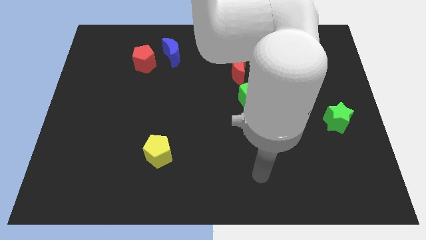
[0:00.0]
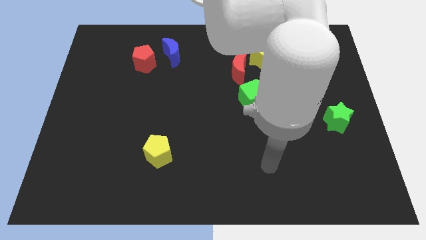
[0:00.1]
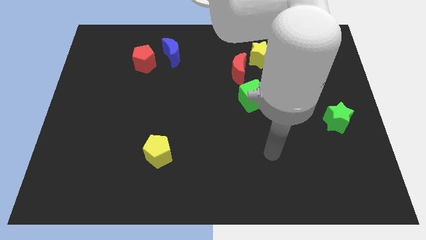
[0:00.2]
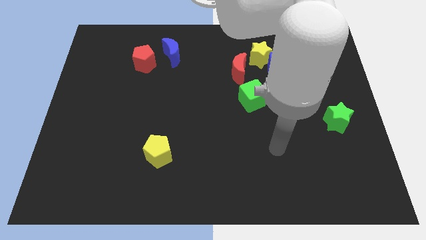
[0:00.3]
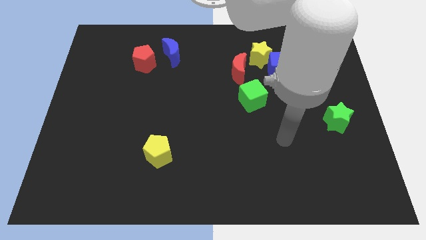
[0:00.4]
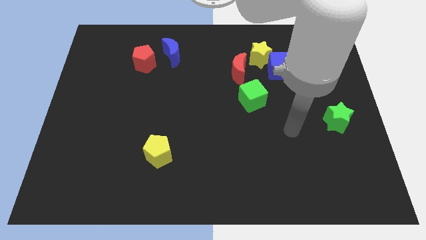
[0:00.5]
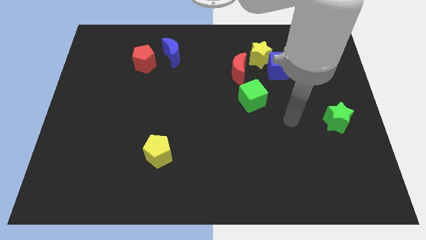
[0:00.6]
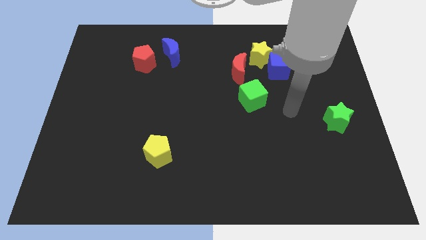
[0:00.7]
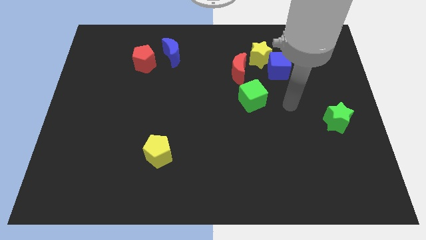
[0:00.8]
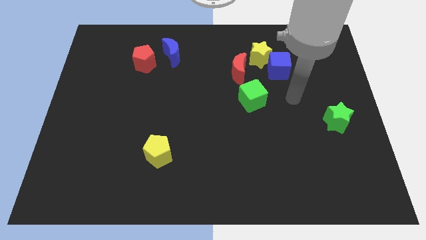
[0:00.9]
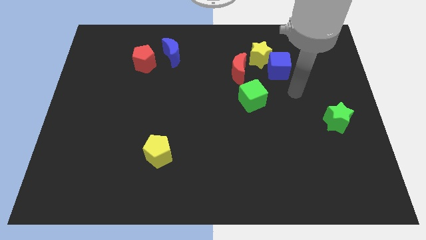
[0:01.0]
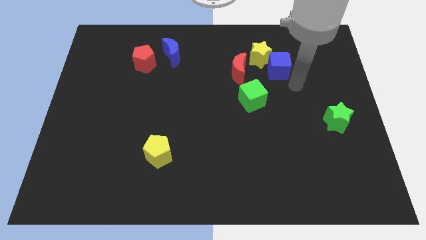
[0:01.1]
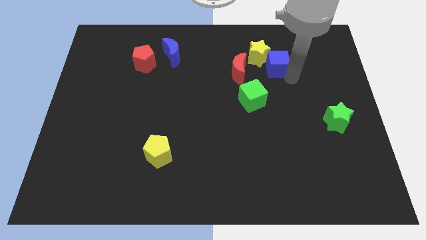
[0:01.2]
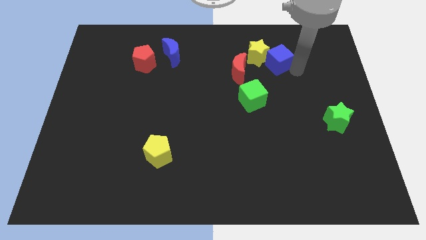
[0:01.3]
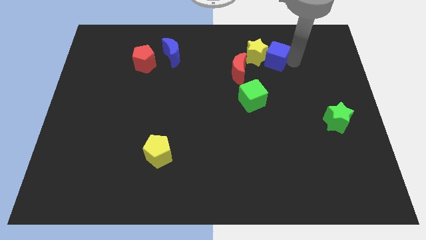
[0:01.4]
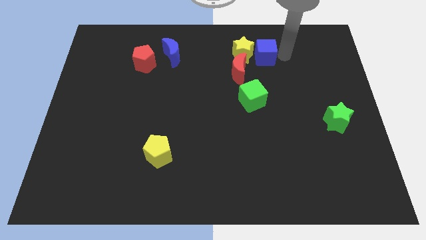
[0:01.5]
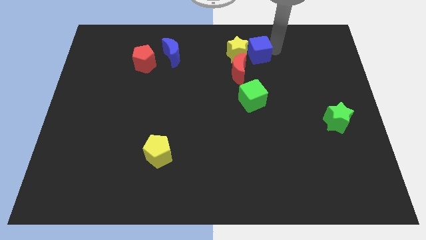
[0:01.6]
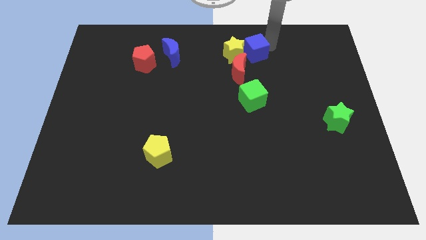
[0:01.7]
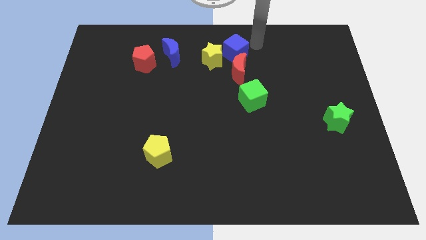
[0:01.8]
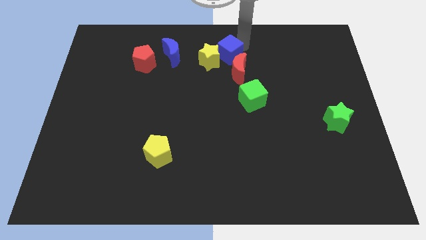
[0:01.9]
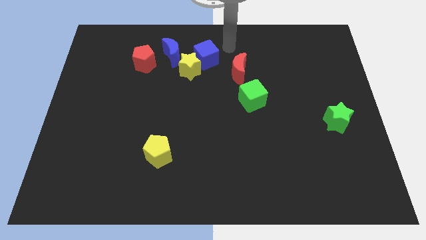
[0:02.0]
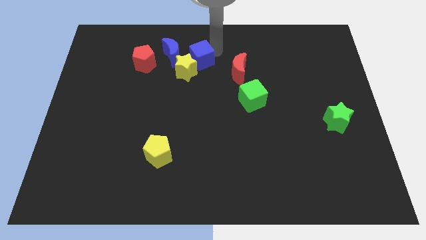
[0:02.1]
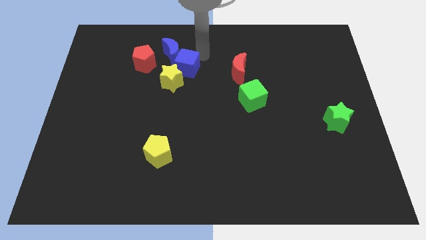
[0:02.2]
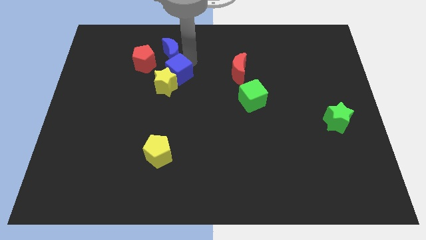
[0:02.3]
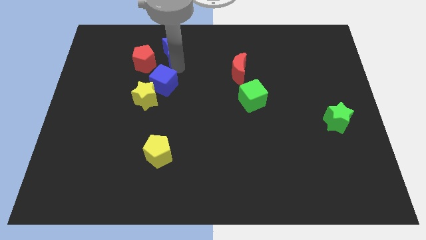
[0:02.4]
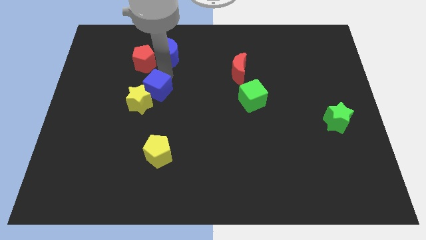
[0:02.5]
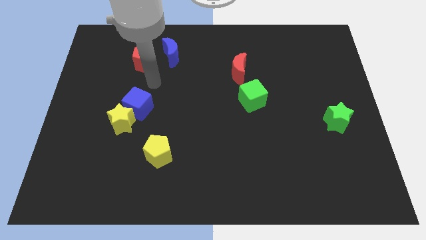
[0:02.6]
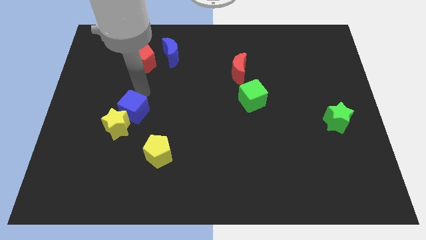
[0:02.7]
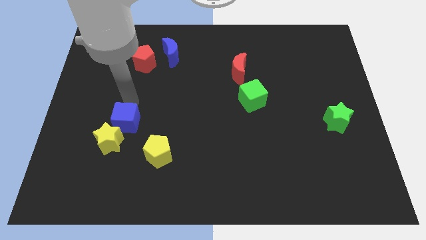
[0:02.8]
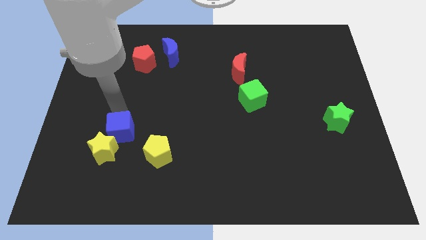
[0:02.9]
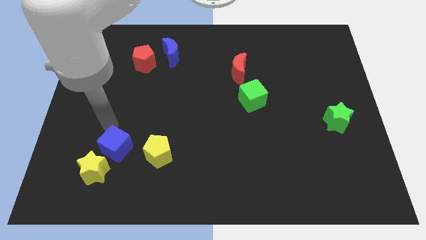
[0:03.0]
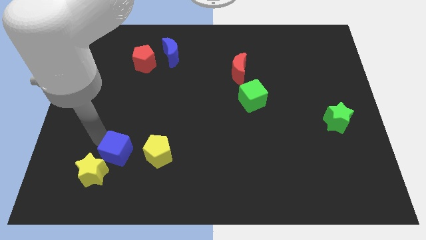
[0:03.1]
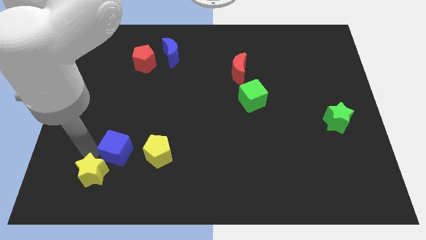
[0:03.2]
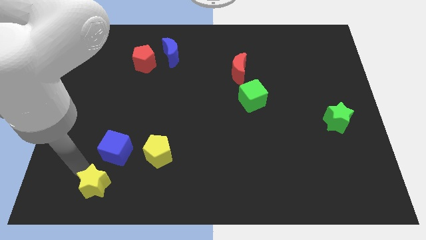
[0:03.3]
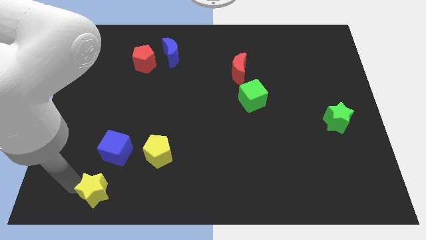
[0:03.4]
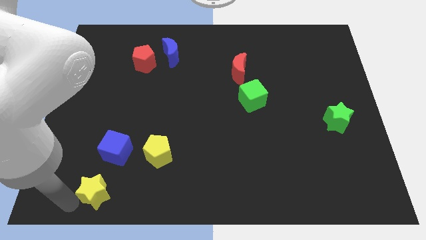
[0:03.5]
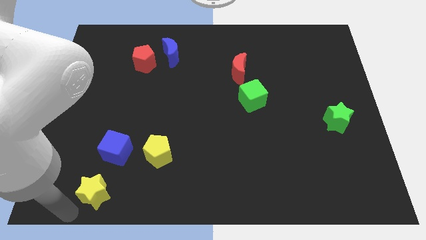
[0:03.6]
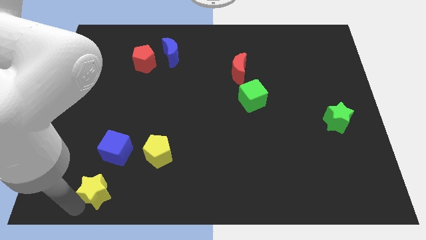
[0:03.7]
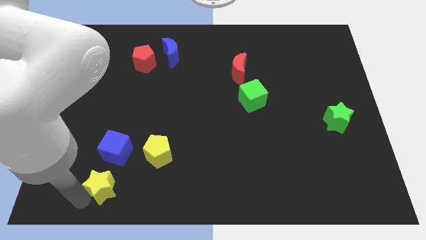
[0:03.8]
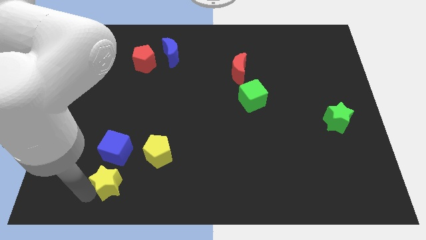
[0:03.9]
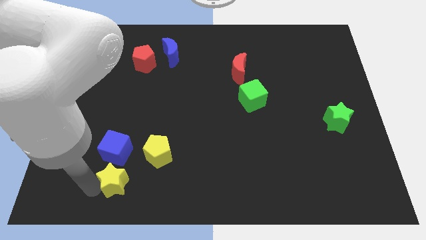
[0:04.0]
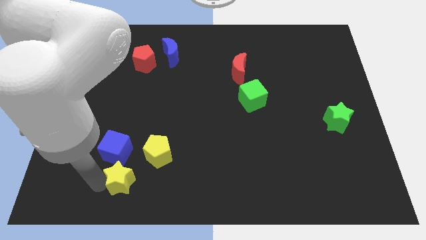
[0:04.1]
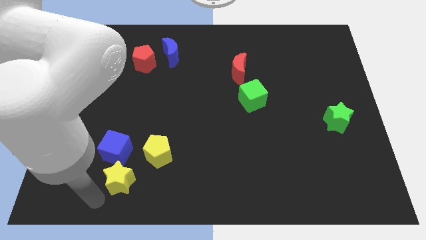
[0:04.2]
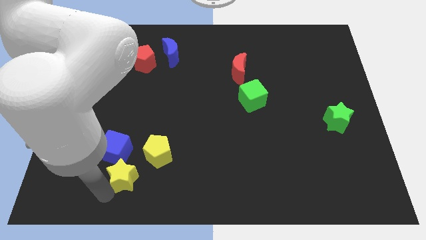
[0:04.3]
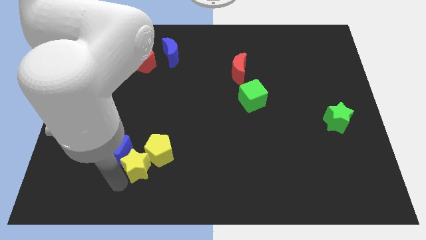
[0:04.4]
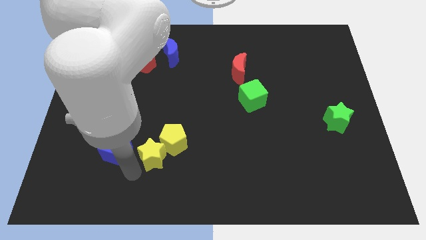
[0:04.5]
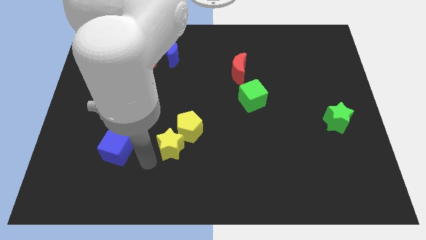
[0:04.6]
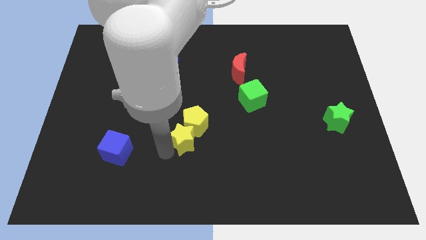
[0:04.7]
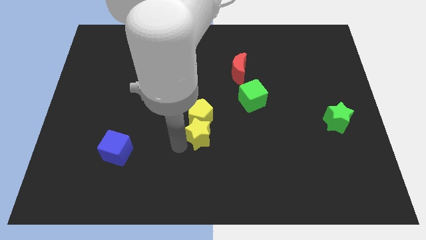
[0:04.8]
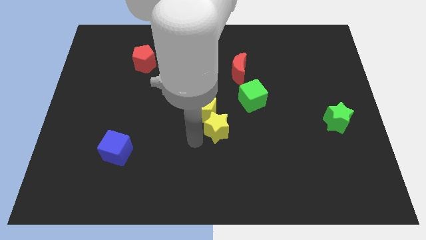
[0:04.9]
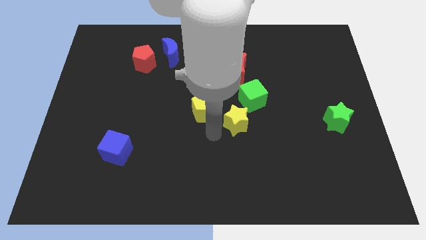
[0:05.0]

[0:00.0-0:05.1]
slide the yellow star downwards

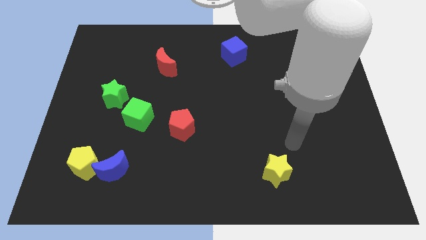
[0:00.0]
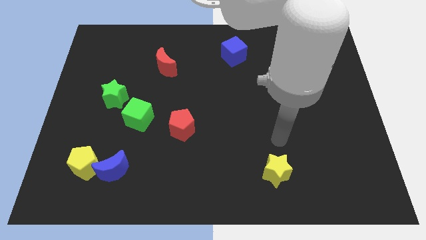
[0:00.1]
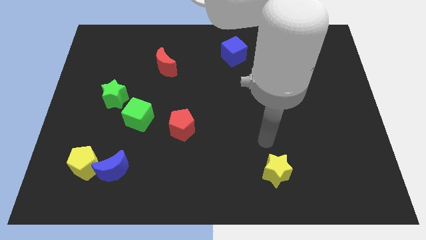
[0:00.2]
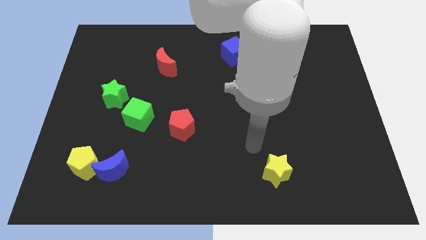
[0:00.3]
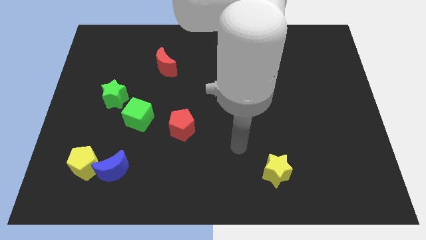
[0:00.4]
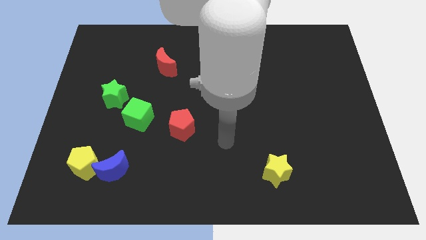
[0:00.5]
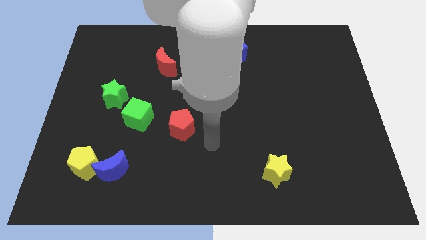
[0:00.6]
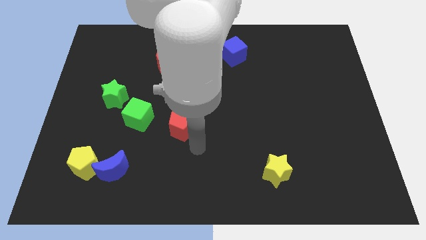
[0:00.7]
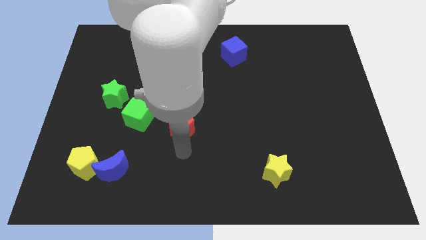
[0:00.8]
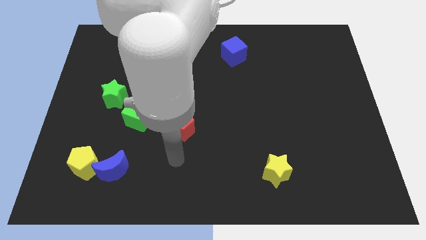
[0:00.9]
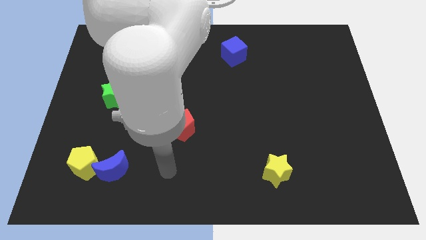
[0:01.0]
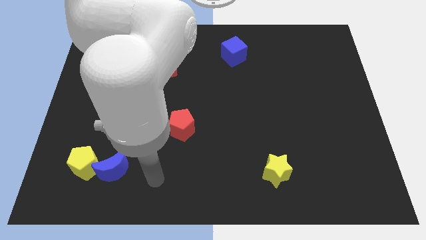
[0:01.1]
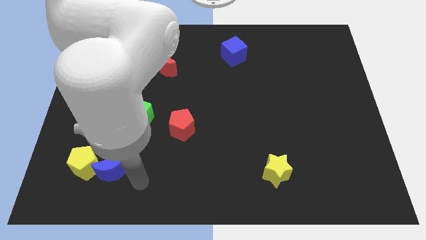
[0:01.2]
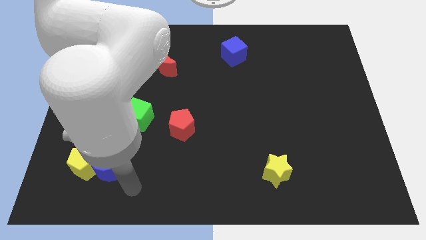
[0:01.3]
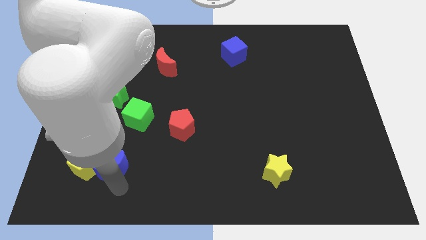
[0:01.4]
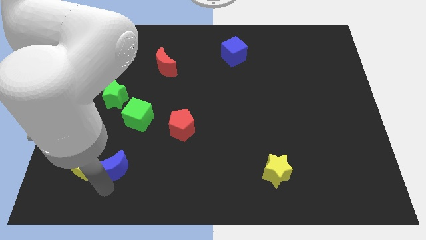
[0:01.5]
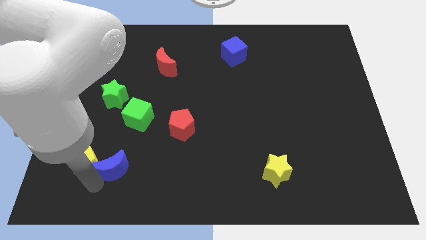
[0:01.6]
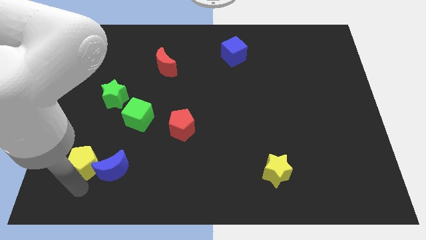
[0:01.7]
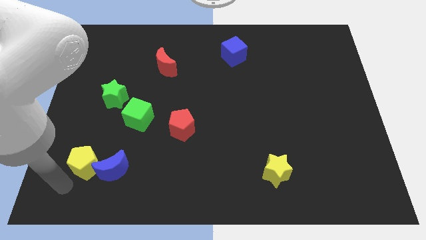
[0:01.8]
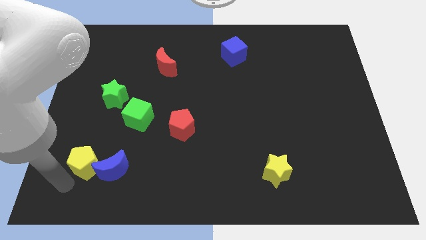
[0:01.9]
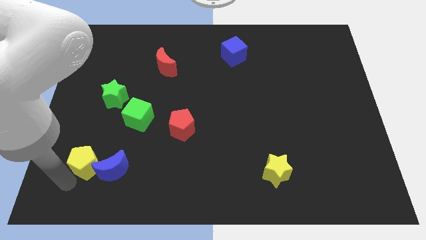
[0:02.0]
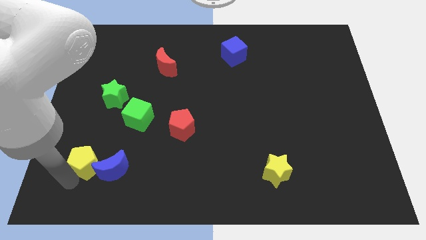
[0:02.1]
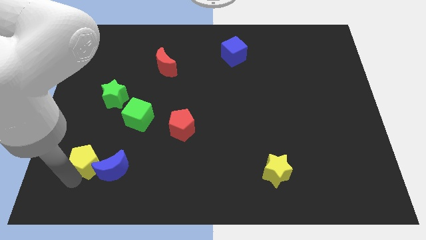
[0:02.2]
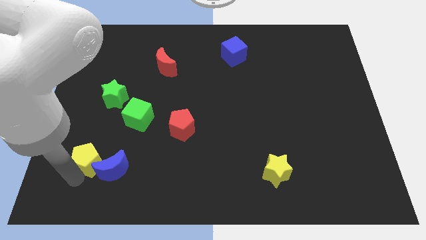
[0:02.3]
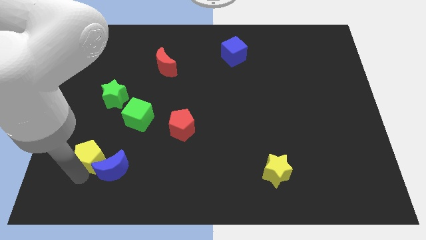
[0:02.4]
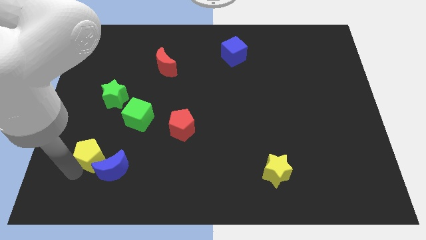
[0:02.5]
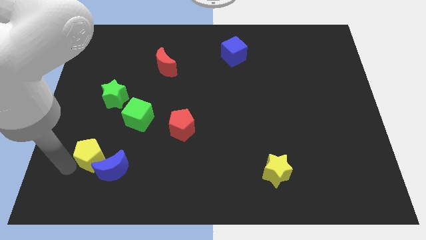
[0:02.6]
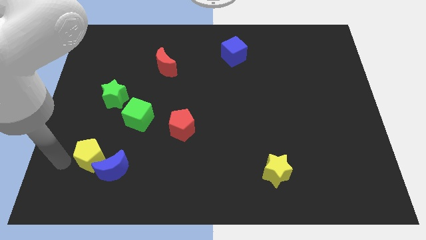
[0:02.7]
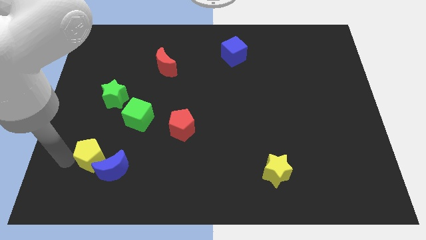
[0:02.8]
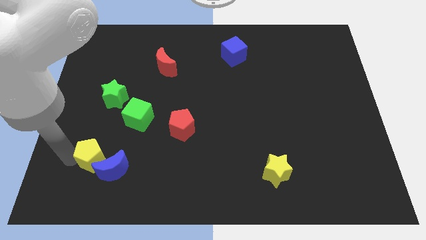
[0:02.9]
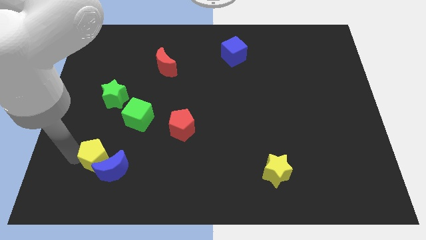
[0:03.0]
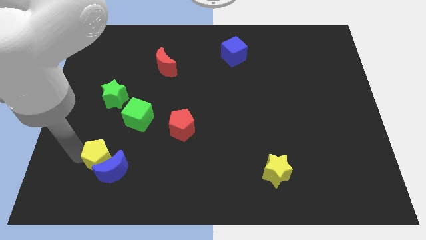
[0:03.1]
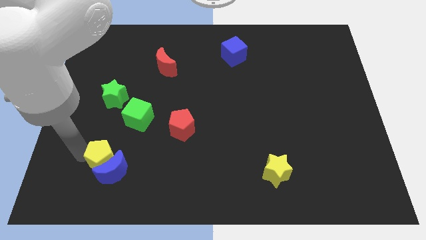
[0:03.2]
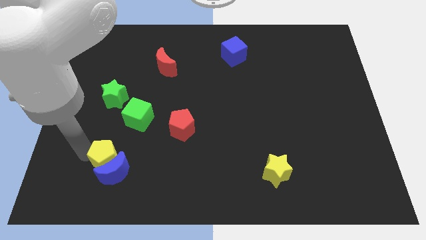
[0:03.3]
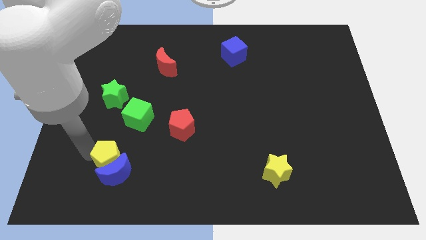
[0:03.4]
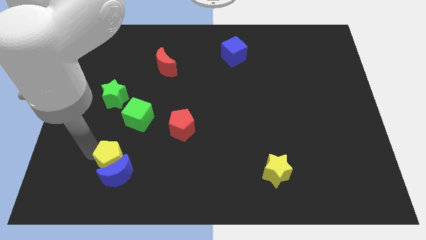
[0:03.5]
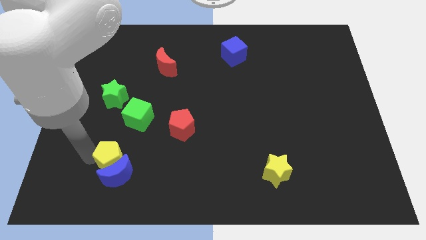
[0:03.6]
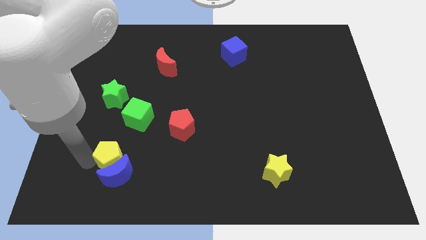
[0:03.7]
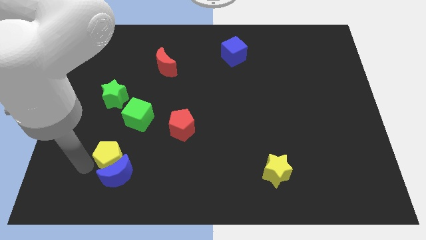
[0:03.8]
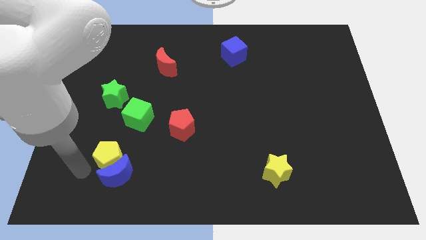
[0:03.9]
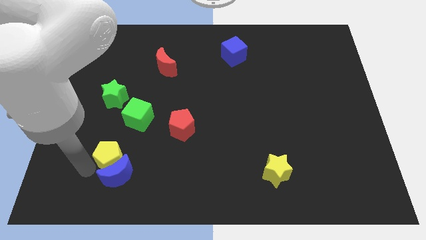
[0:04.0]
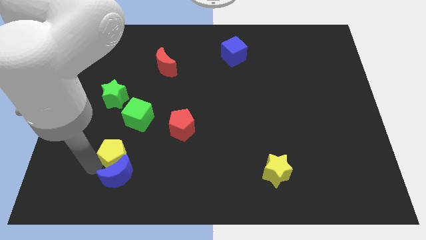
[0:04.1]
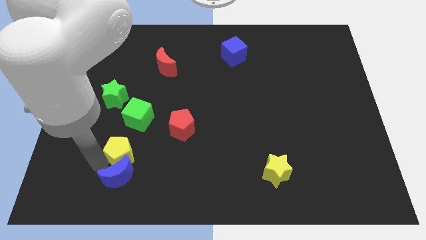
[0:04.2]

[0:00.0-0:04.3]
move the yellow pentagon right somewhat
